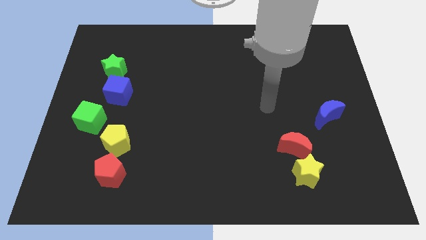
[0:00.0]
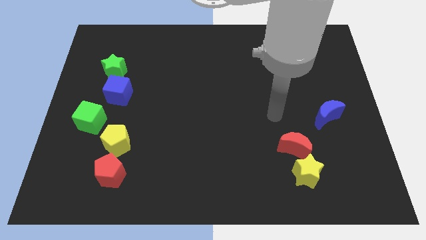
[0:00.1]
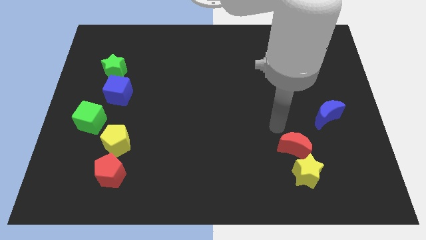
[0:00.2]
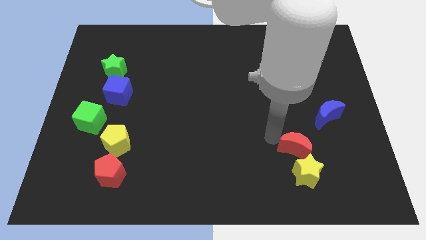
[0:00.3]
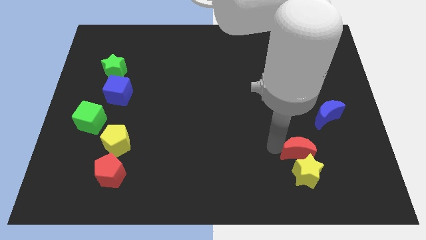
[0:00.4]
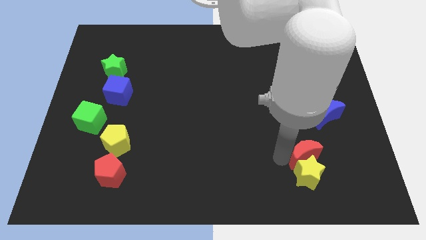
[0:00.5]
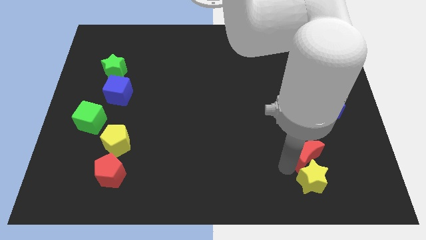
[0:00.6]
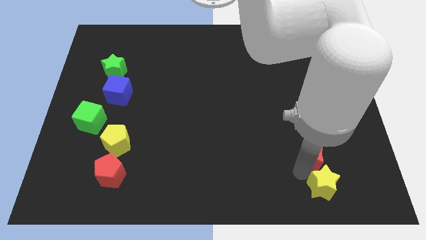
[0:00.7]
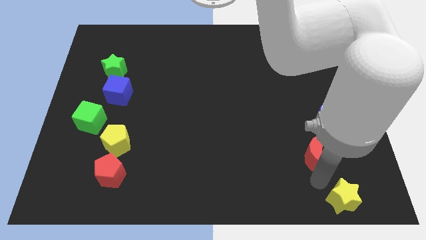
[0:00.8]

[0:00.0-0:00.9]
pull the red moon apart from the yellow star

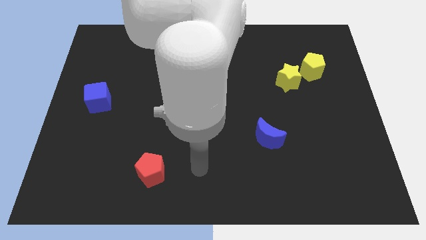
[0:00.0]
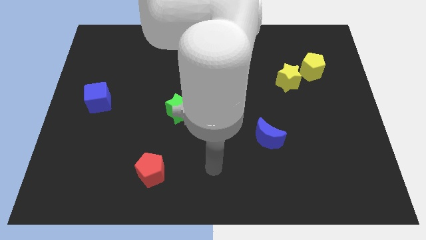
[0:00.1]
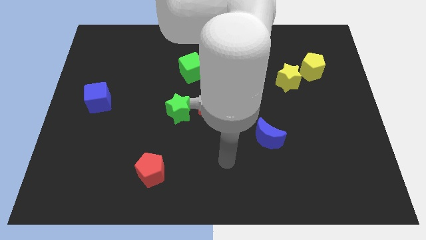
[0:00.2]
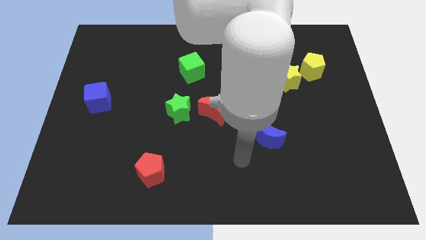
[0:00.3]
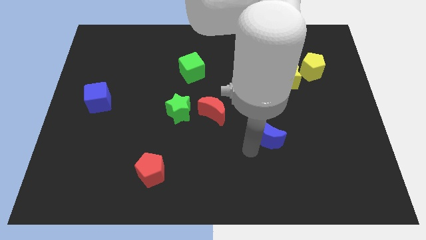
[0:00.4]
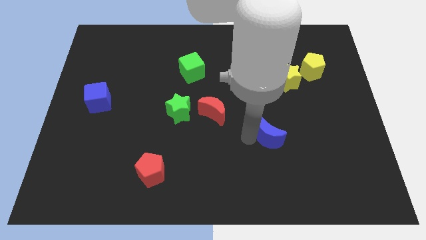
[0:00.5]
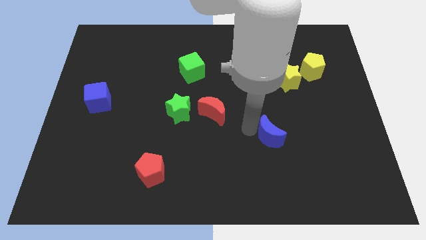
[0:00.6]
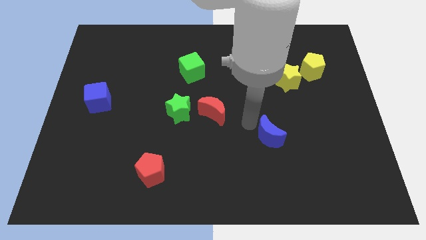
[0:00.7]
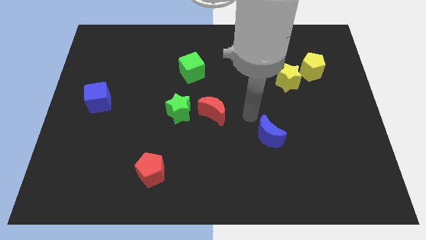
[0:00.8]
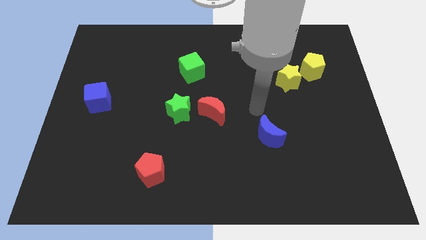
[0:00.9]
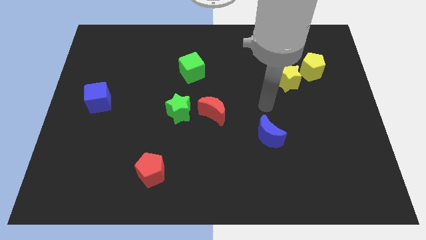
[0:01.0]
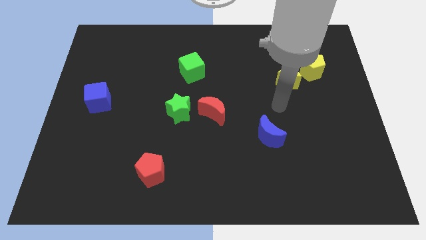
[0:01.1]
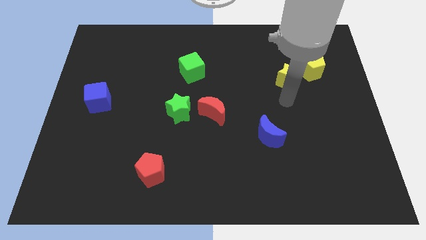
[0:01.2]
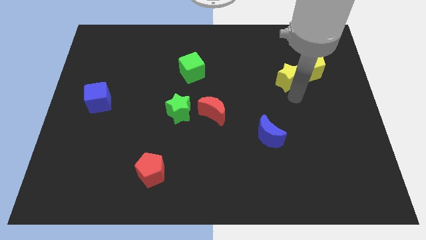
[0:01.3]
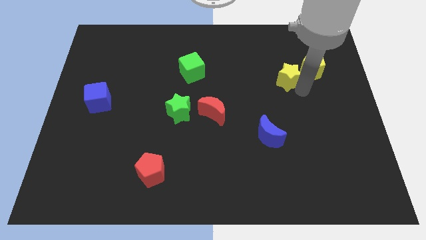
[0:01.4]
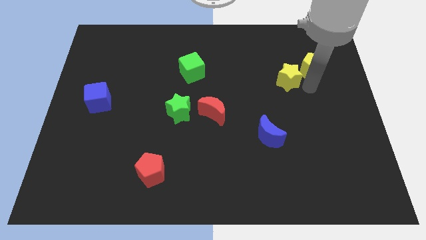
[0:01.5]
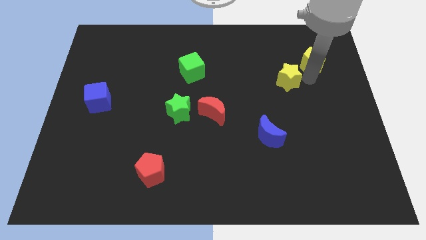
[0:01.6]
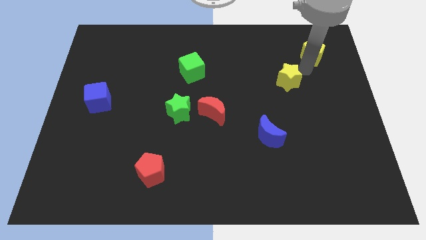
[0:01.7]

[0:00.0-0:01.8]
pull the yellow star apart from the yellow pentagon

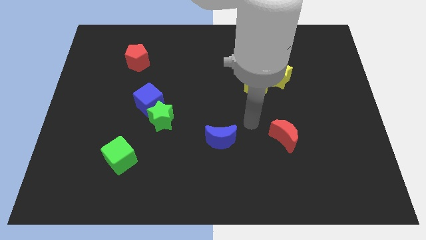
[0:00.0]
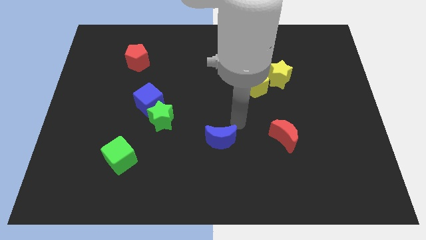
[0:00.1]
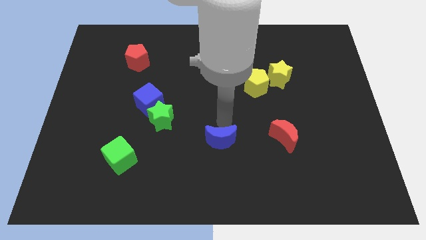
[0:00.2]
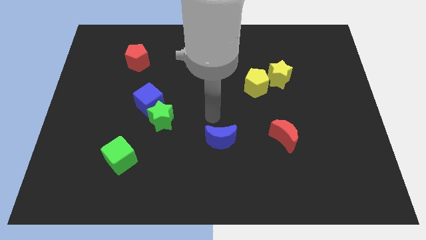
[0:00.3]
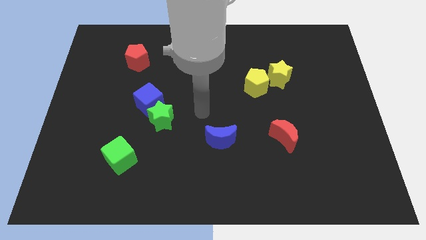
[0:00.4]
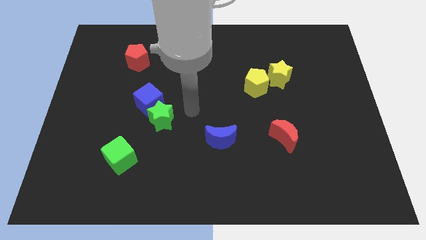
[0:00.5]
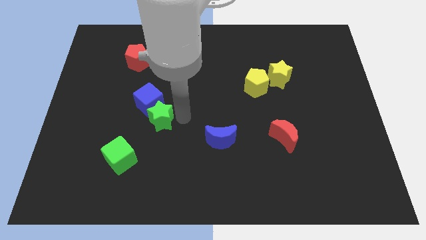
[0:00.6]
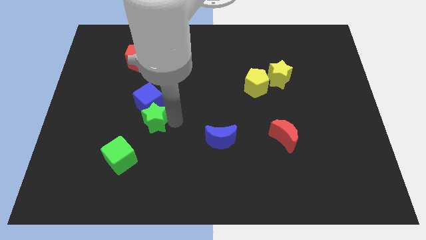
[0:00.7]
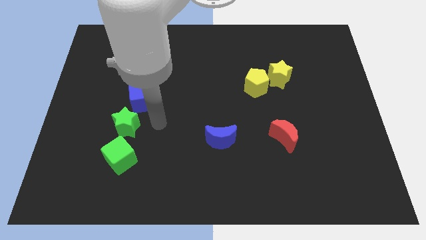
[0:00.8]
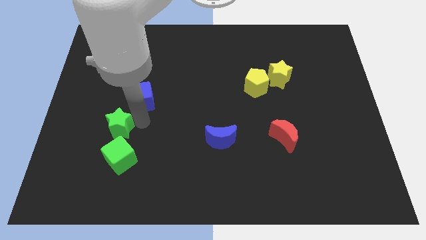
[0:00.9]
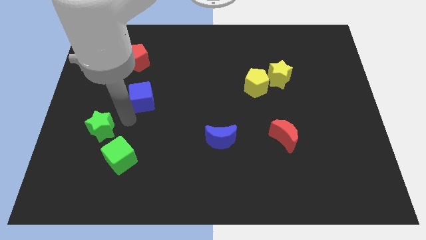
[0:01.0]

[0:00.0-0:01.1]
separate the blue cube from the green star

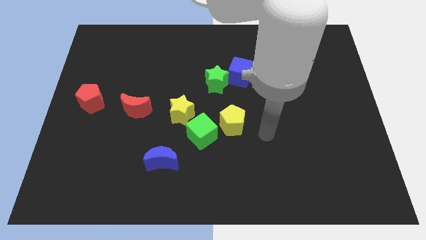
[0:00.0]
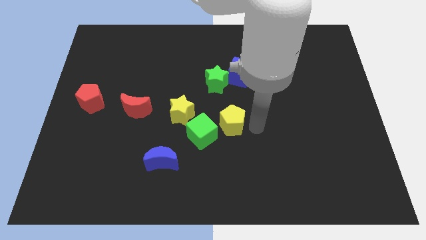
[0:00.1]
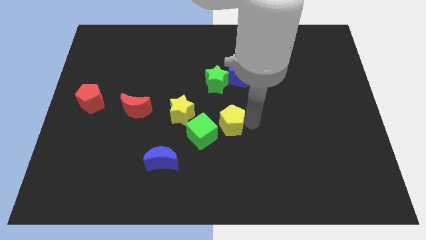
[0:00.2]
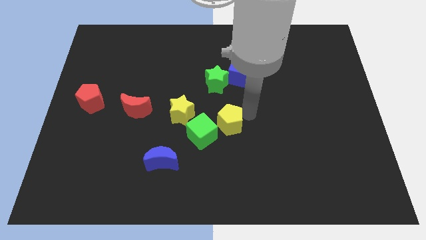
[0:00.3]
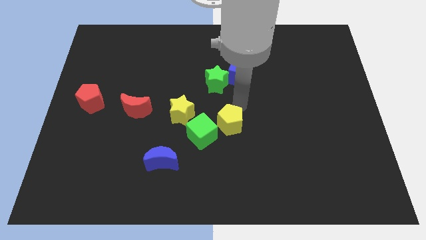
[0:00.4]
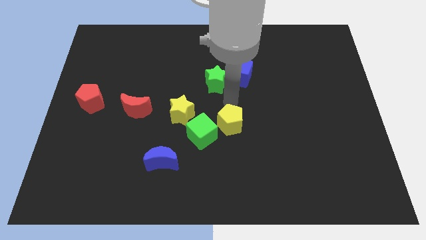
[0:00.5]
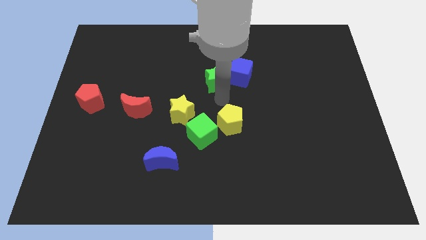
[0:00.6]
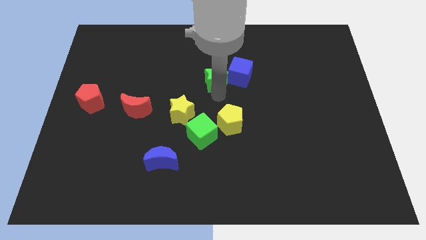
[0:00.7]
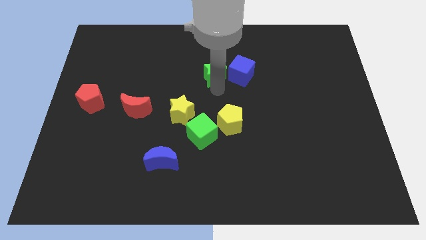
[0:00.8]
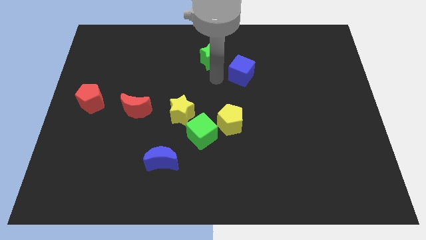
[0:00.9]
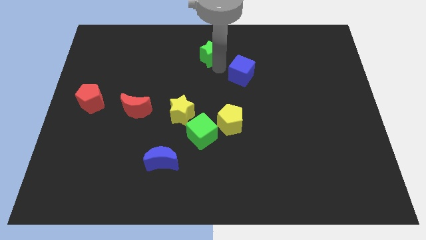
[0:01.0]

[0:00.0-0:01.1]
pull the blue cube apart from the green star

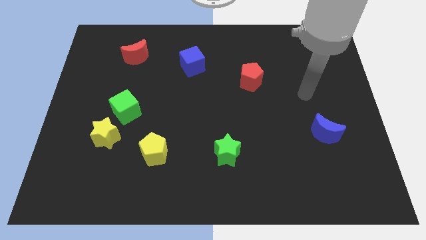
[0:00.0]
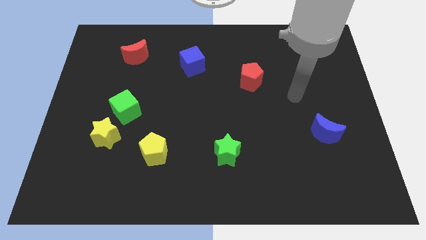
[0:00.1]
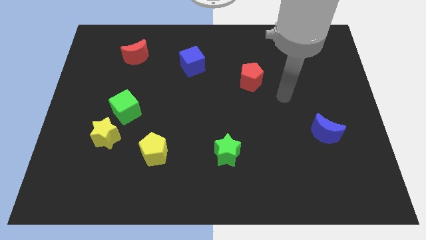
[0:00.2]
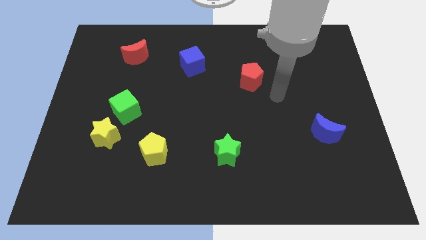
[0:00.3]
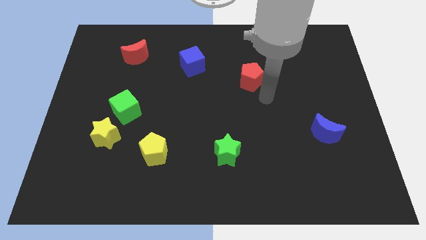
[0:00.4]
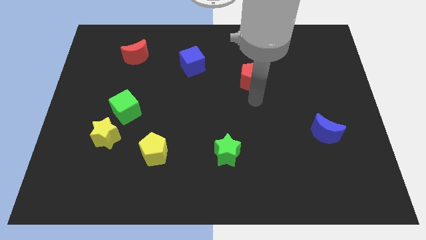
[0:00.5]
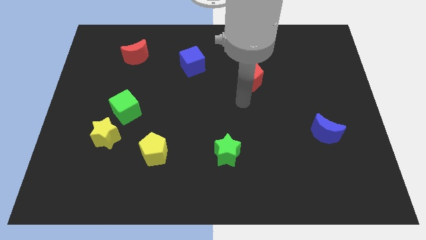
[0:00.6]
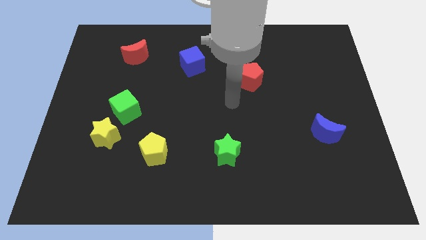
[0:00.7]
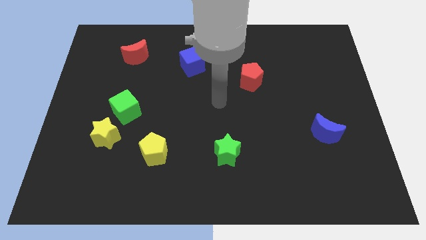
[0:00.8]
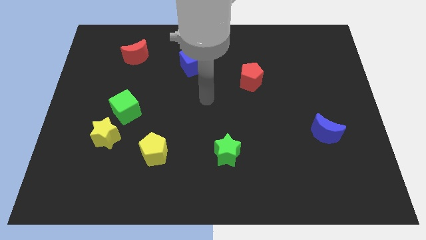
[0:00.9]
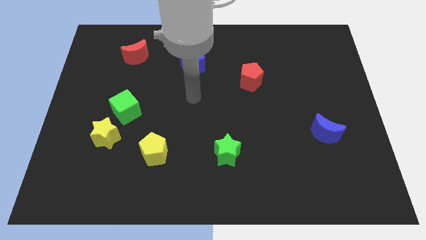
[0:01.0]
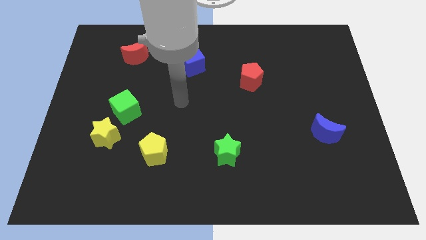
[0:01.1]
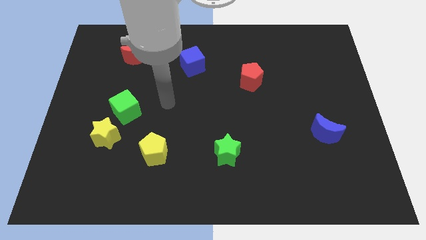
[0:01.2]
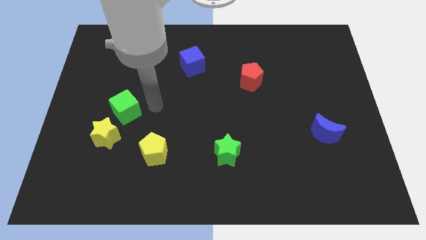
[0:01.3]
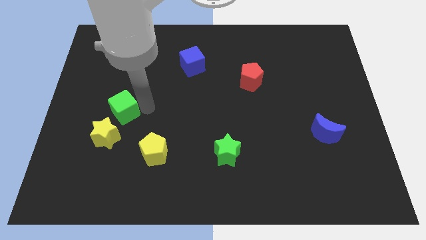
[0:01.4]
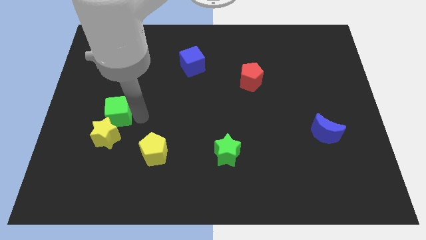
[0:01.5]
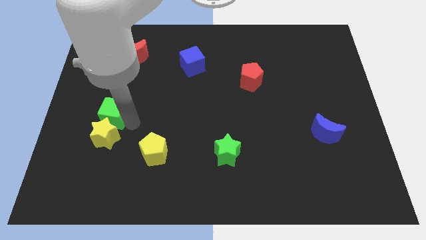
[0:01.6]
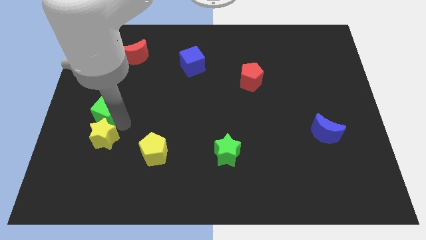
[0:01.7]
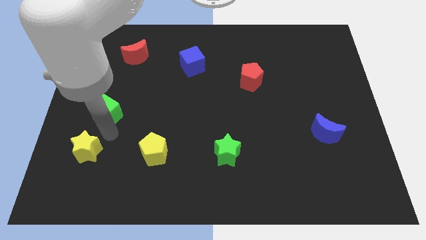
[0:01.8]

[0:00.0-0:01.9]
move the green cube away from the yellow star

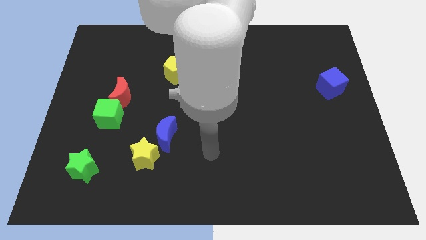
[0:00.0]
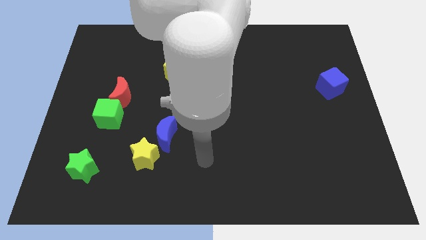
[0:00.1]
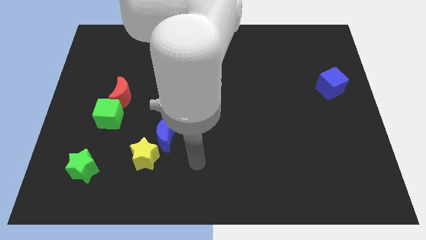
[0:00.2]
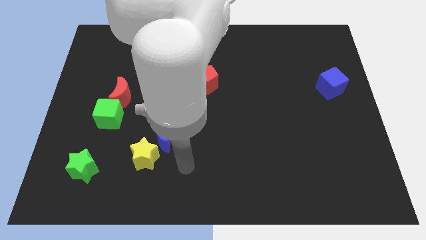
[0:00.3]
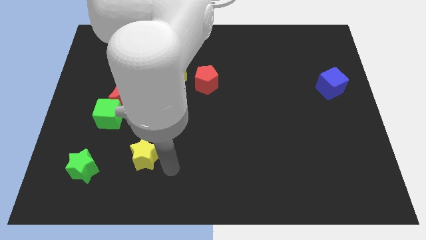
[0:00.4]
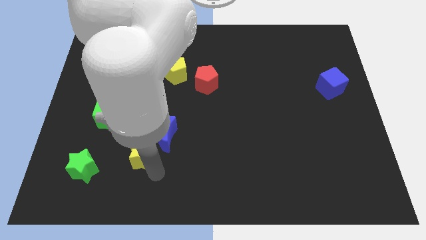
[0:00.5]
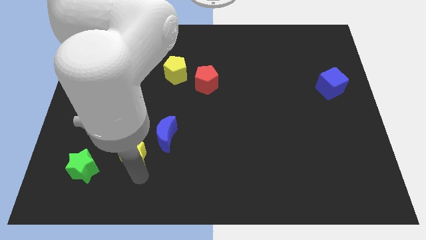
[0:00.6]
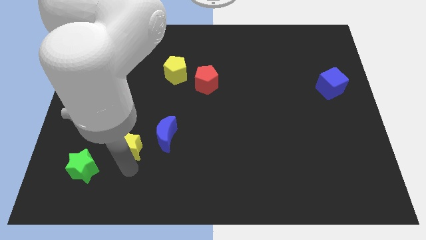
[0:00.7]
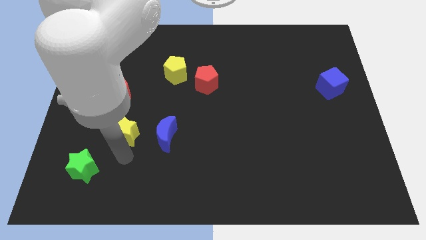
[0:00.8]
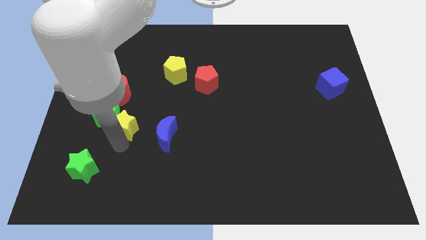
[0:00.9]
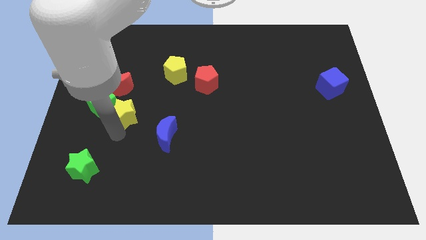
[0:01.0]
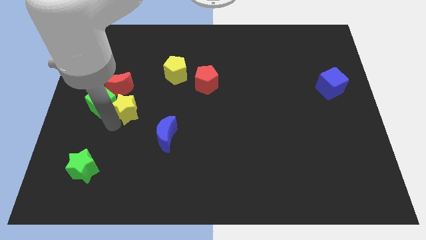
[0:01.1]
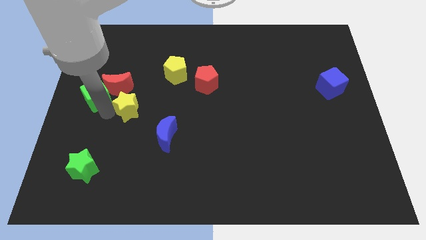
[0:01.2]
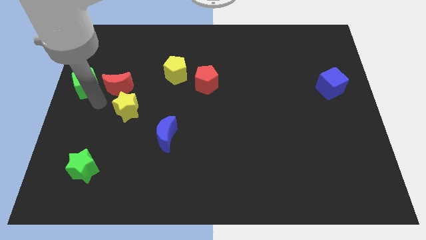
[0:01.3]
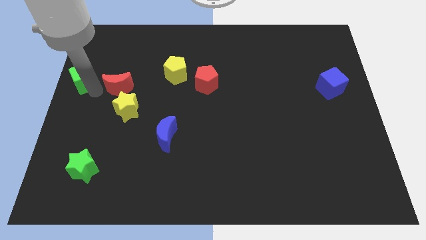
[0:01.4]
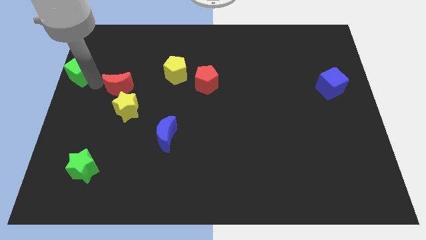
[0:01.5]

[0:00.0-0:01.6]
move the red moon away from the green cube

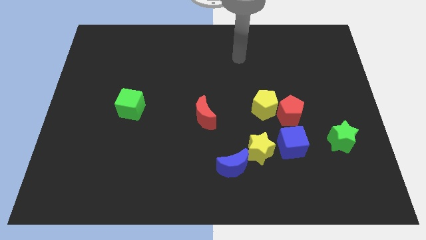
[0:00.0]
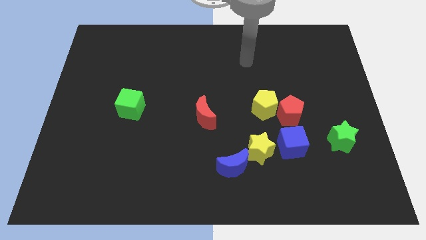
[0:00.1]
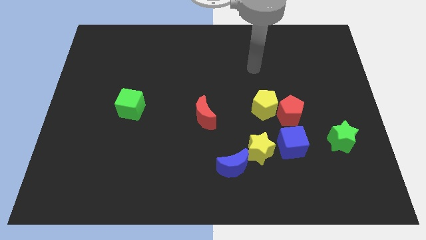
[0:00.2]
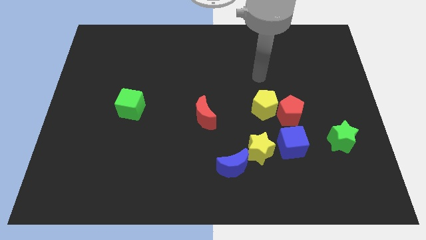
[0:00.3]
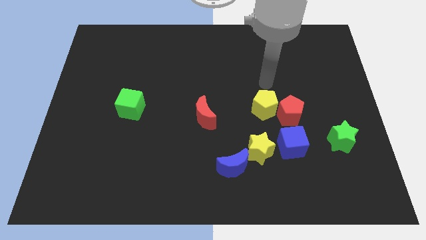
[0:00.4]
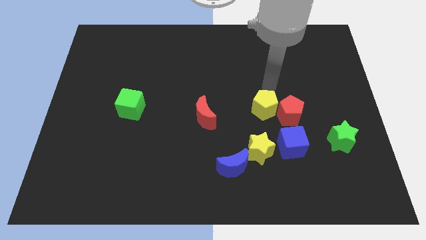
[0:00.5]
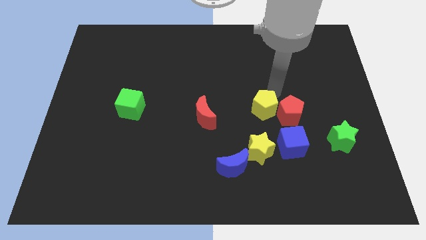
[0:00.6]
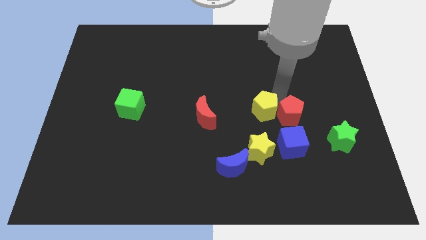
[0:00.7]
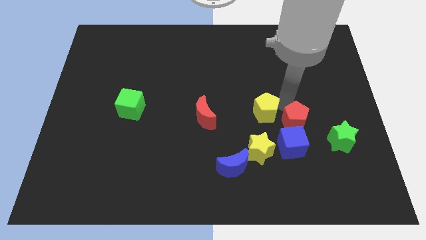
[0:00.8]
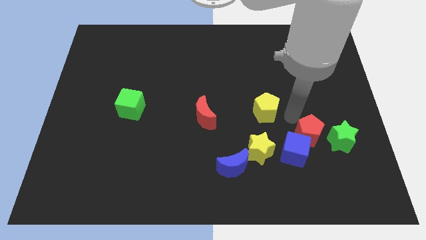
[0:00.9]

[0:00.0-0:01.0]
separate the yellow pentagon from the red pentagon
